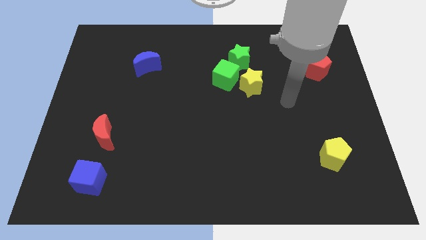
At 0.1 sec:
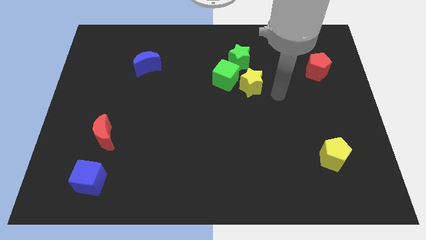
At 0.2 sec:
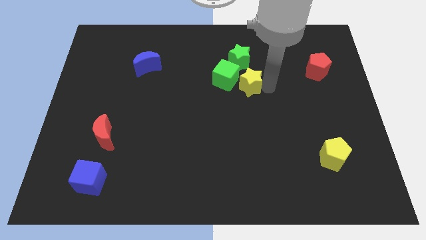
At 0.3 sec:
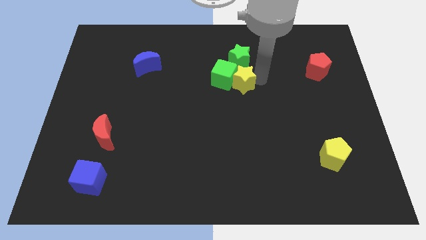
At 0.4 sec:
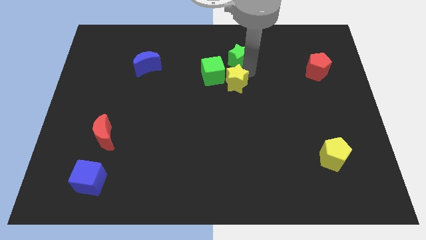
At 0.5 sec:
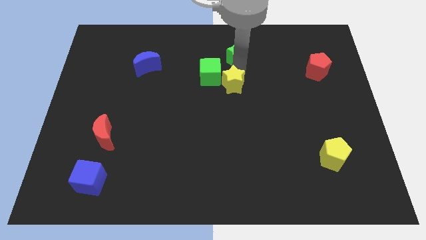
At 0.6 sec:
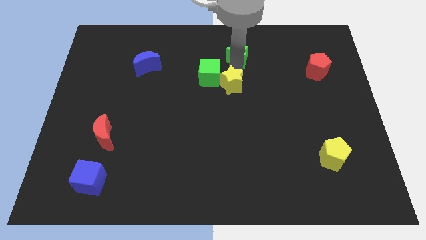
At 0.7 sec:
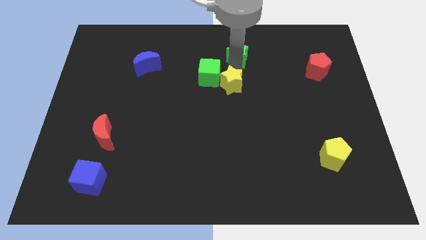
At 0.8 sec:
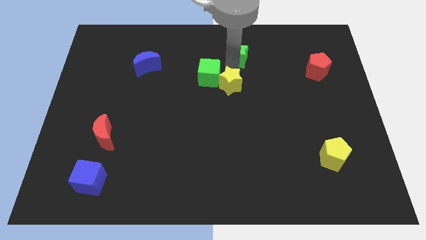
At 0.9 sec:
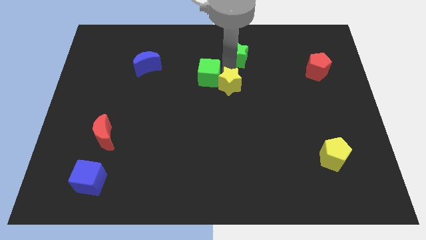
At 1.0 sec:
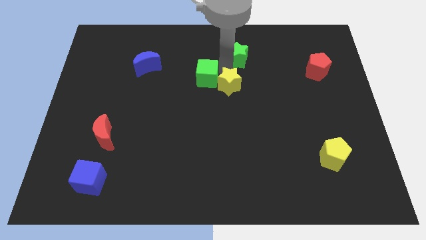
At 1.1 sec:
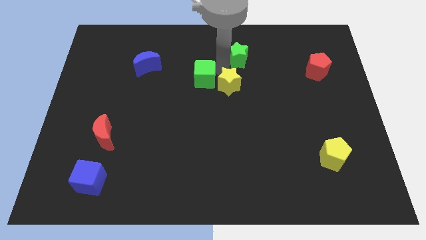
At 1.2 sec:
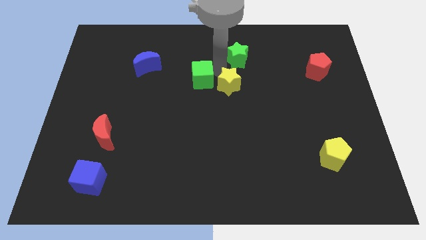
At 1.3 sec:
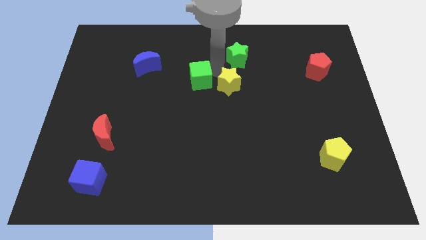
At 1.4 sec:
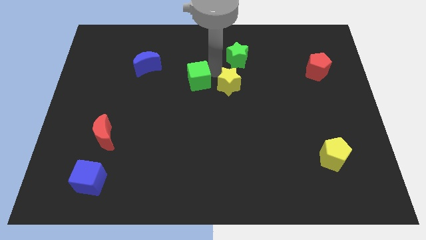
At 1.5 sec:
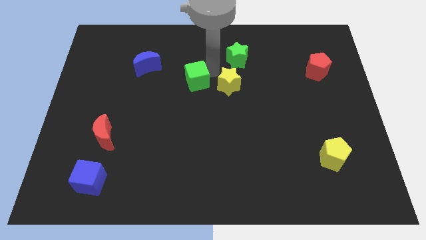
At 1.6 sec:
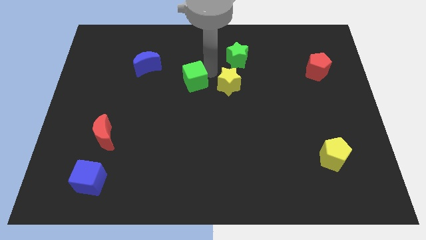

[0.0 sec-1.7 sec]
pull the green cube apart from the yellow star and green star

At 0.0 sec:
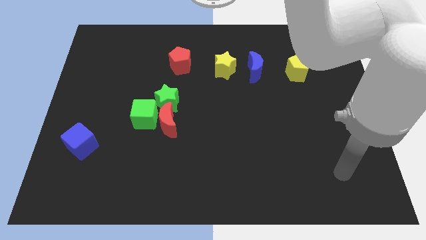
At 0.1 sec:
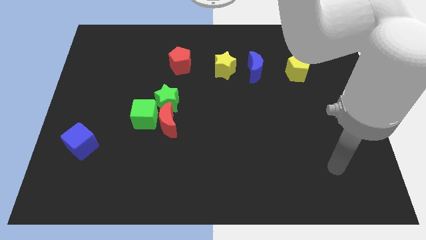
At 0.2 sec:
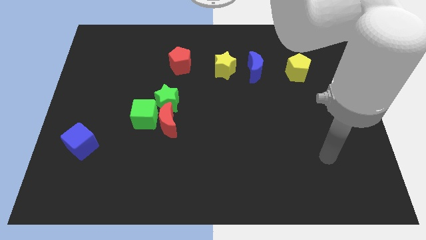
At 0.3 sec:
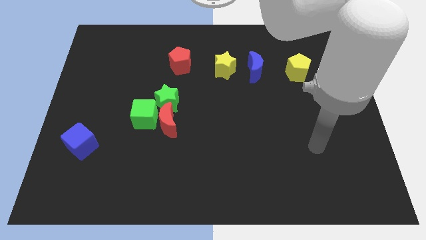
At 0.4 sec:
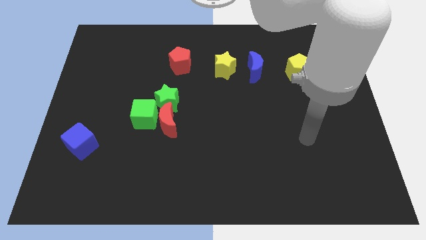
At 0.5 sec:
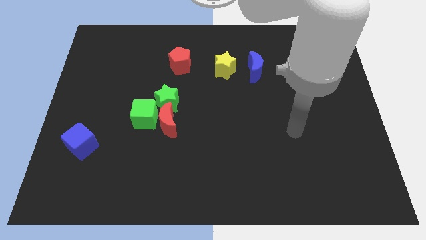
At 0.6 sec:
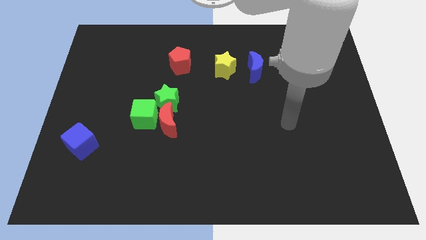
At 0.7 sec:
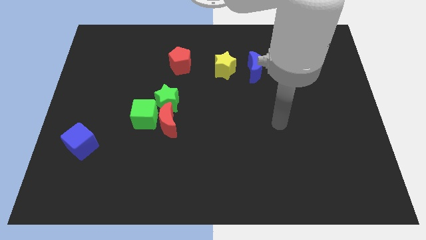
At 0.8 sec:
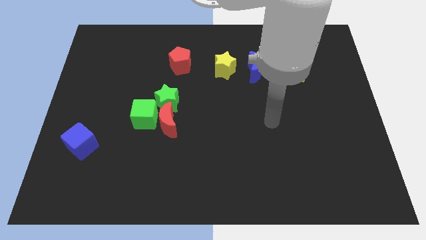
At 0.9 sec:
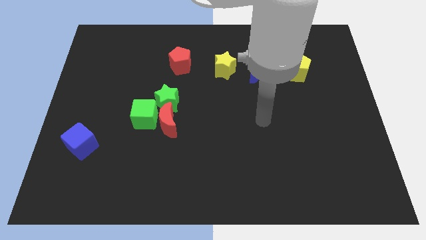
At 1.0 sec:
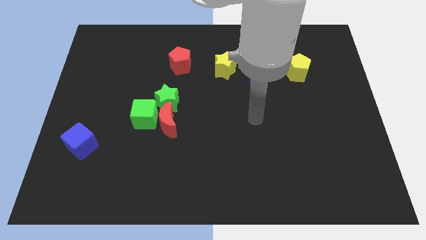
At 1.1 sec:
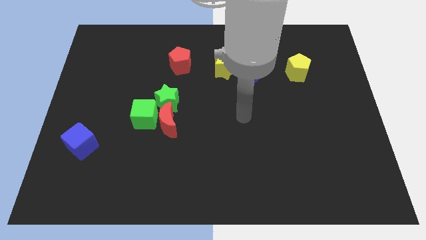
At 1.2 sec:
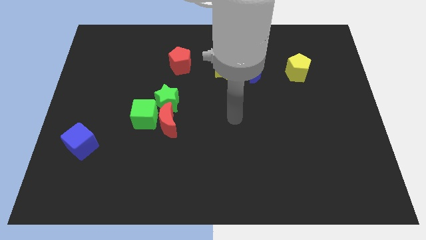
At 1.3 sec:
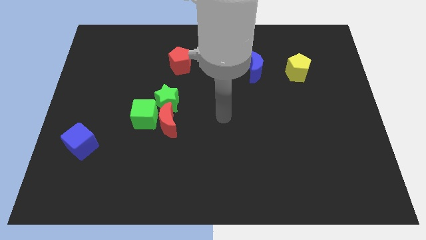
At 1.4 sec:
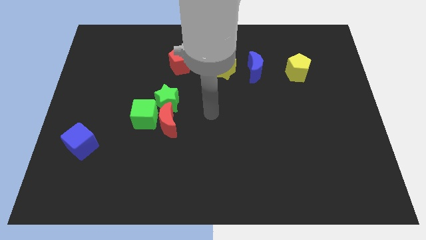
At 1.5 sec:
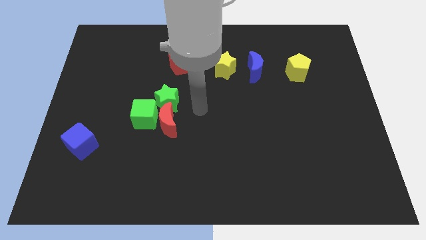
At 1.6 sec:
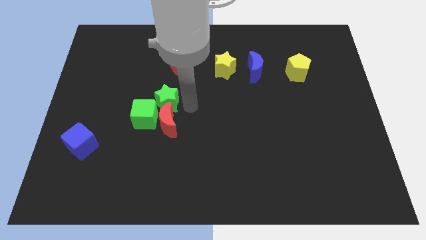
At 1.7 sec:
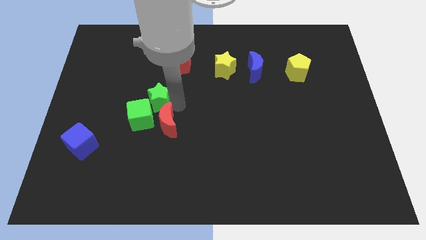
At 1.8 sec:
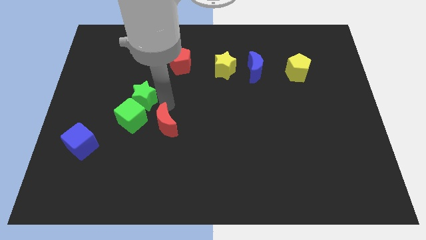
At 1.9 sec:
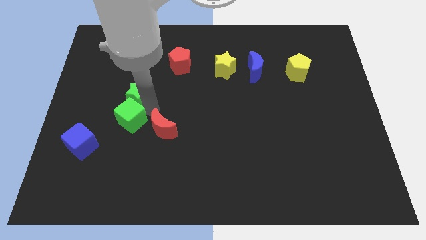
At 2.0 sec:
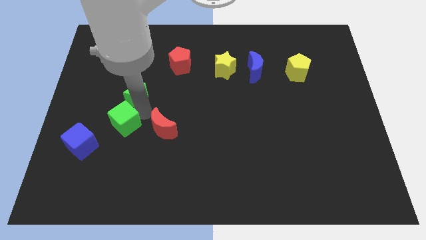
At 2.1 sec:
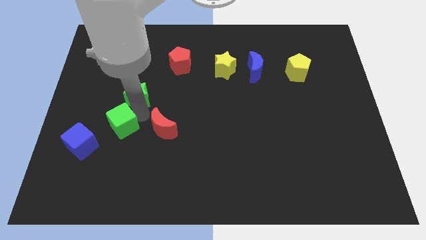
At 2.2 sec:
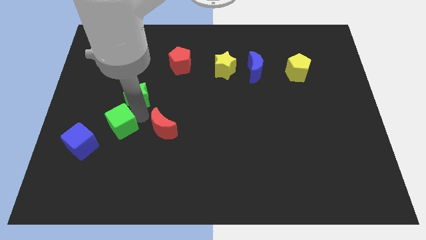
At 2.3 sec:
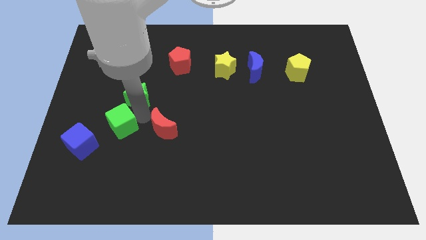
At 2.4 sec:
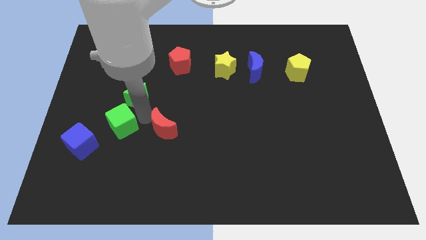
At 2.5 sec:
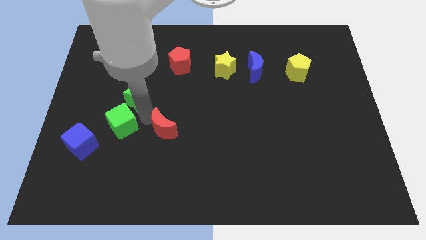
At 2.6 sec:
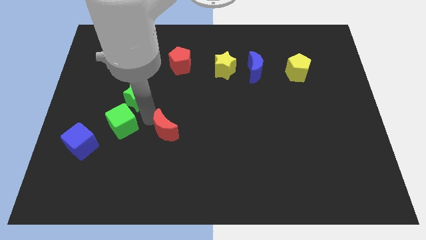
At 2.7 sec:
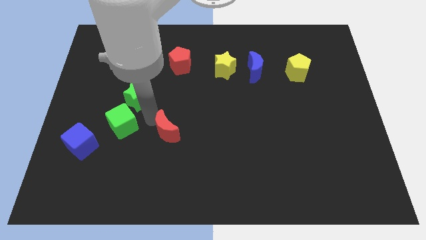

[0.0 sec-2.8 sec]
pull the red moon apart from the green cube and green star

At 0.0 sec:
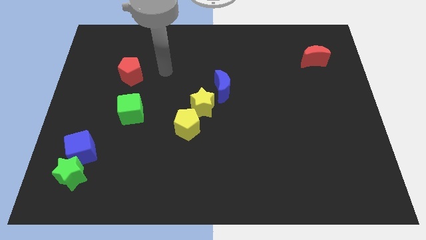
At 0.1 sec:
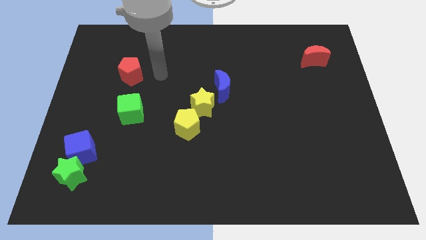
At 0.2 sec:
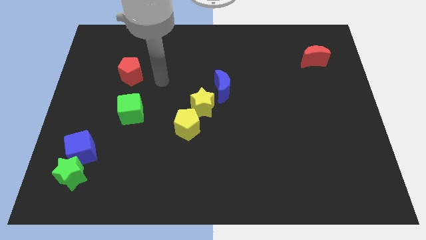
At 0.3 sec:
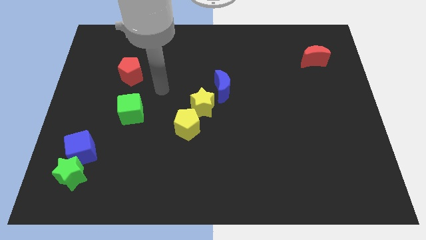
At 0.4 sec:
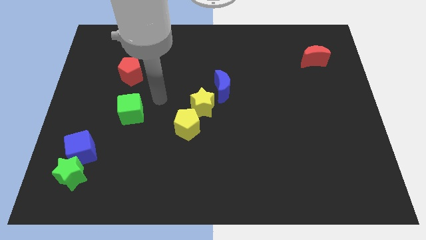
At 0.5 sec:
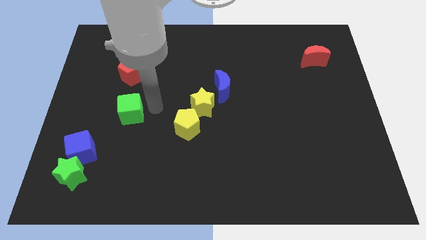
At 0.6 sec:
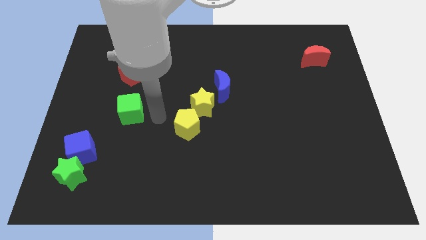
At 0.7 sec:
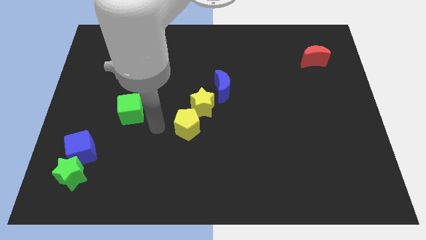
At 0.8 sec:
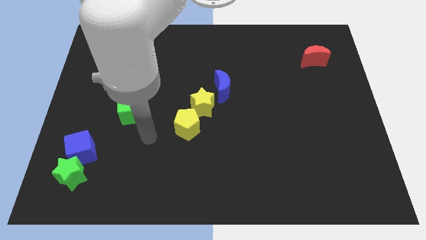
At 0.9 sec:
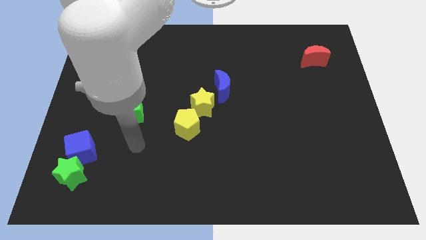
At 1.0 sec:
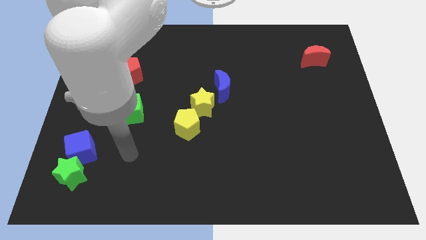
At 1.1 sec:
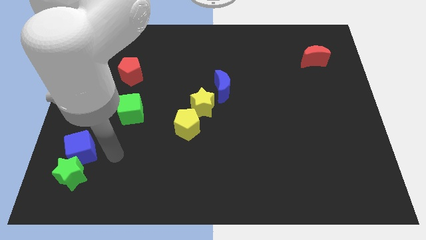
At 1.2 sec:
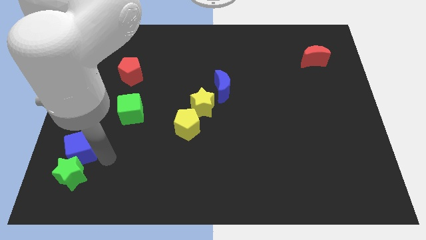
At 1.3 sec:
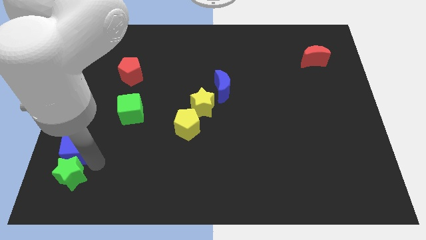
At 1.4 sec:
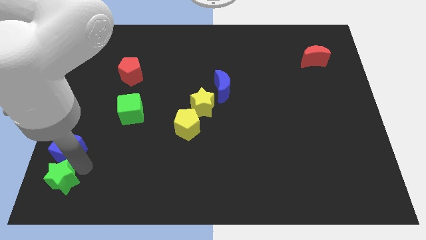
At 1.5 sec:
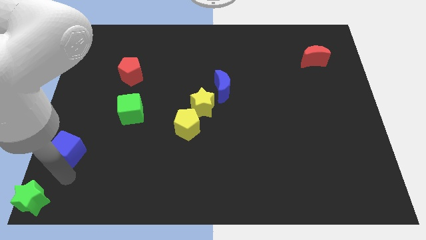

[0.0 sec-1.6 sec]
move the blue cube away from the green star

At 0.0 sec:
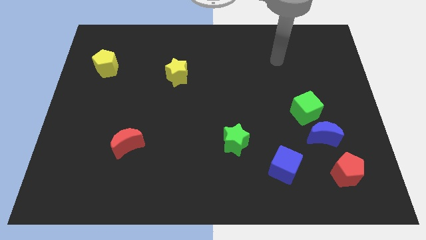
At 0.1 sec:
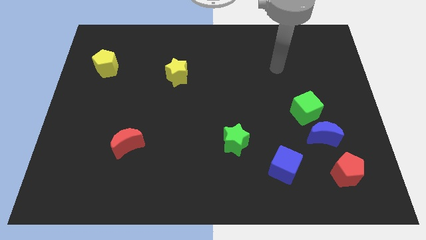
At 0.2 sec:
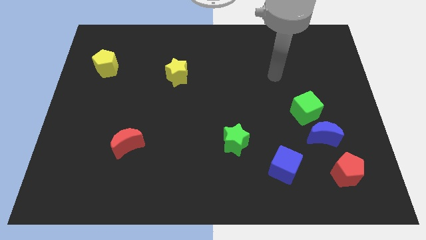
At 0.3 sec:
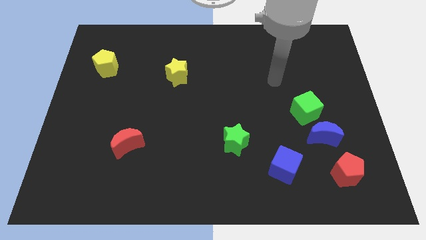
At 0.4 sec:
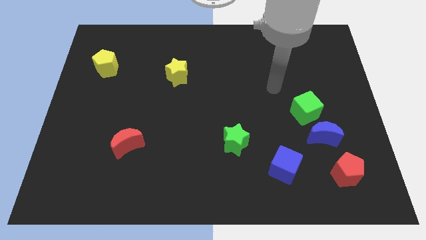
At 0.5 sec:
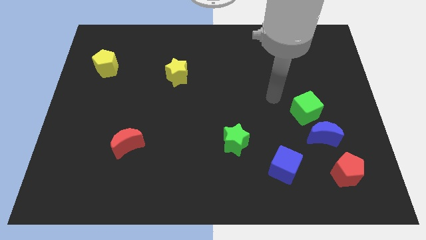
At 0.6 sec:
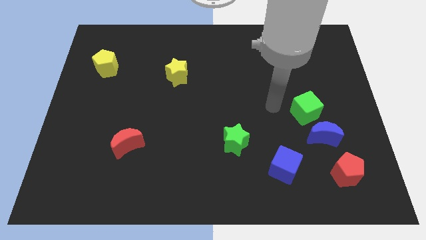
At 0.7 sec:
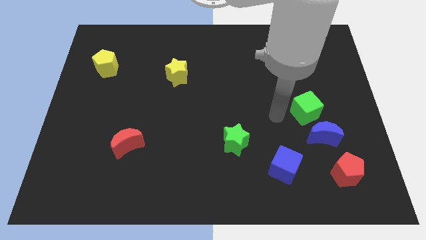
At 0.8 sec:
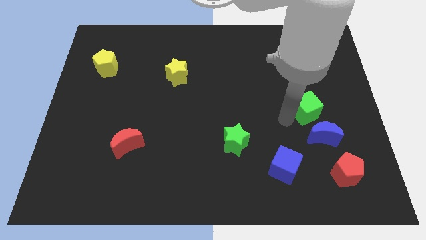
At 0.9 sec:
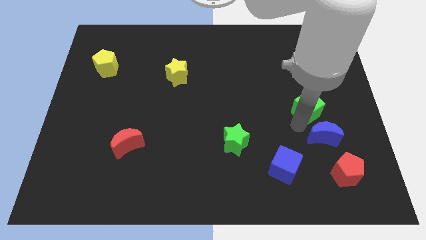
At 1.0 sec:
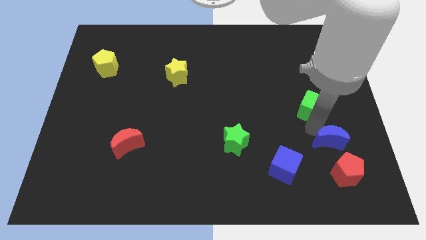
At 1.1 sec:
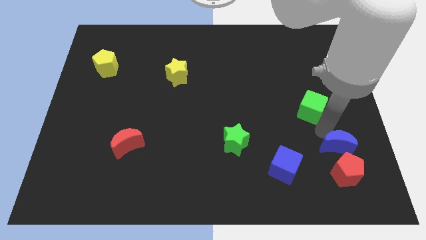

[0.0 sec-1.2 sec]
pull the green cube apart from the blue moon

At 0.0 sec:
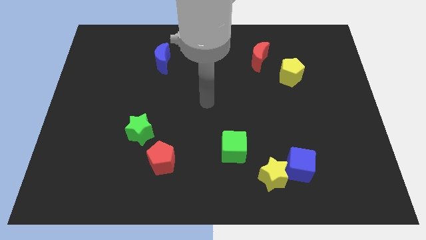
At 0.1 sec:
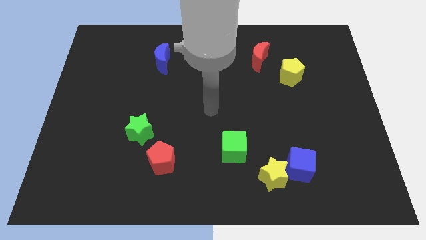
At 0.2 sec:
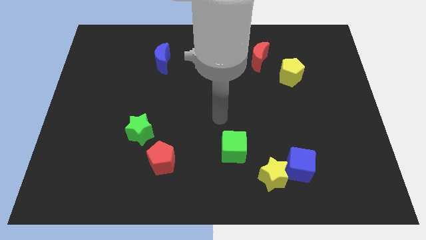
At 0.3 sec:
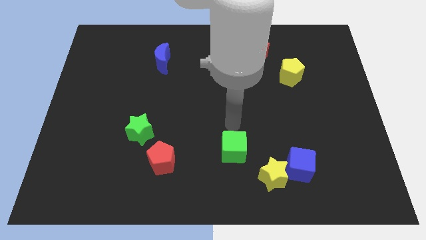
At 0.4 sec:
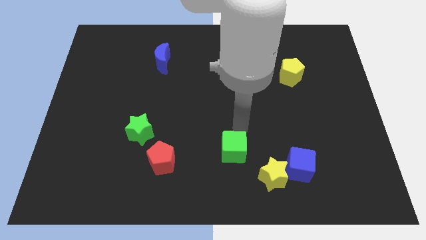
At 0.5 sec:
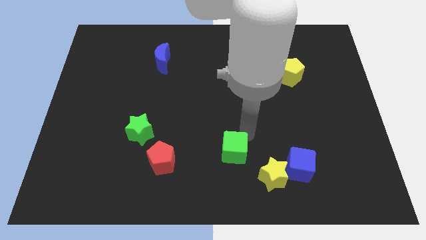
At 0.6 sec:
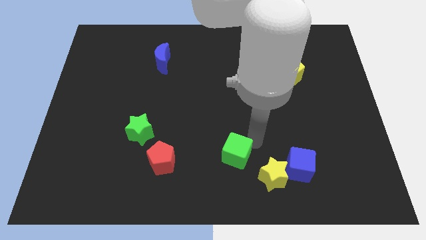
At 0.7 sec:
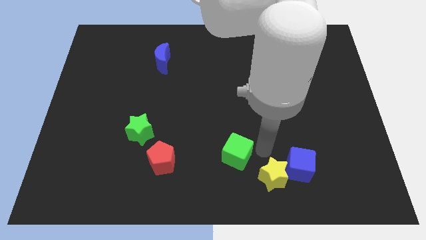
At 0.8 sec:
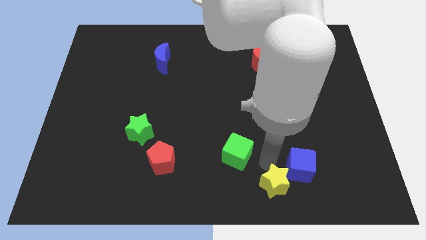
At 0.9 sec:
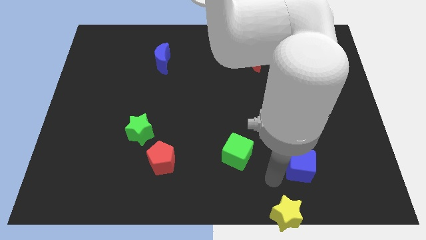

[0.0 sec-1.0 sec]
separate the blue cube from the yellow star

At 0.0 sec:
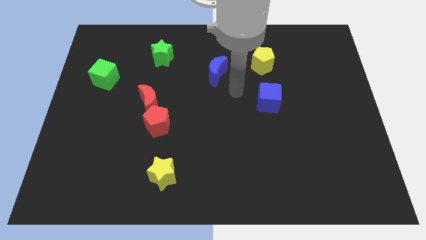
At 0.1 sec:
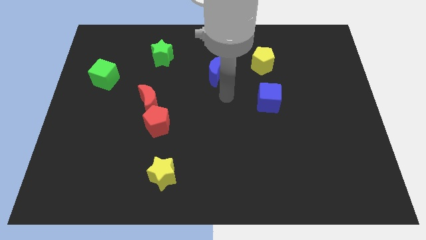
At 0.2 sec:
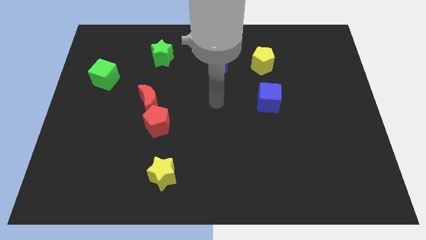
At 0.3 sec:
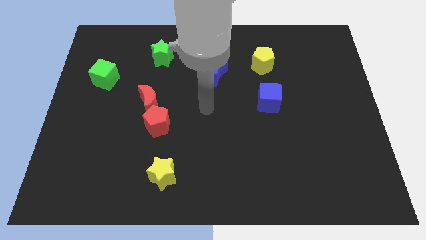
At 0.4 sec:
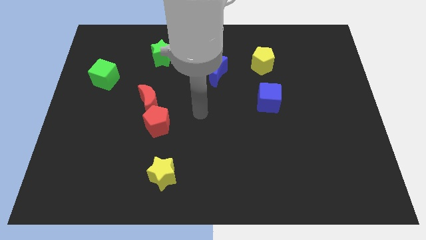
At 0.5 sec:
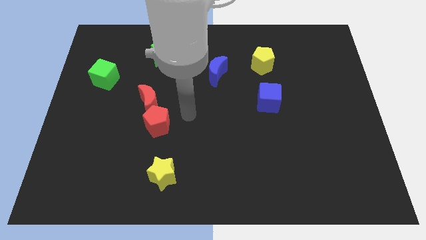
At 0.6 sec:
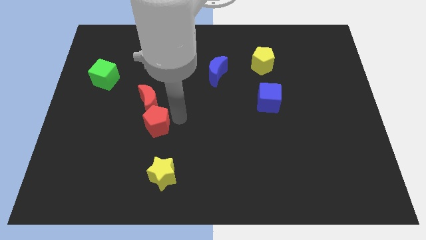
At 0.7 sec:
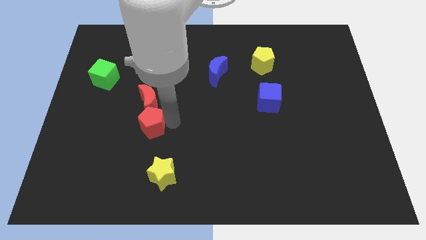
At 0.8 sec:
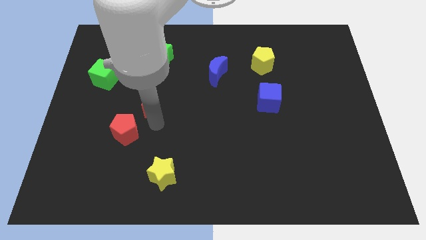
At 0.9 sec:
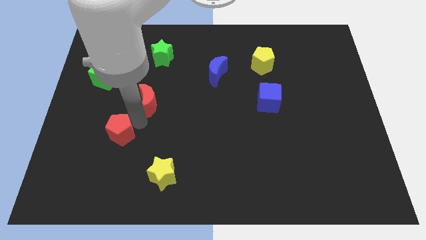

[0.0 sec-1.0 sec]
separate the red moon from the red pentagon
